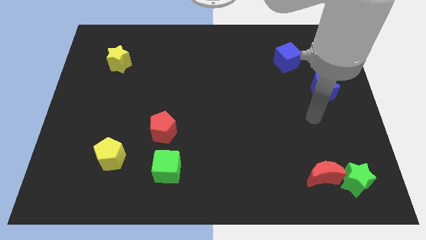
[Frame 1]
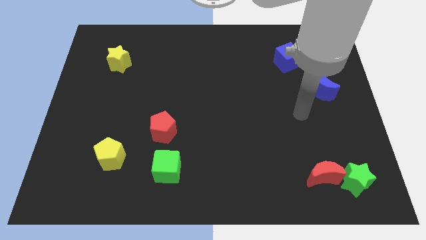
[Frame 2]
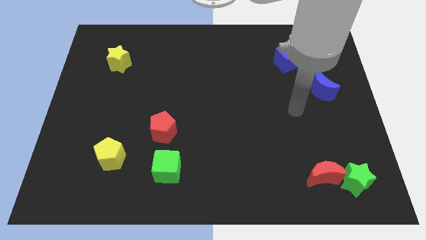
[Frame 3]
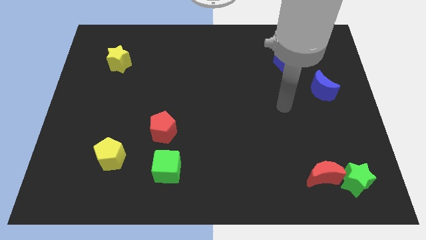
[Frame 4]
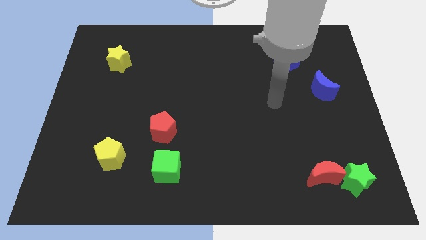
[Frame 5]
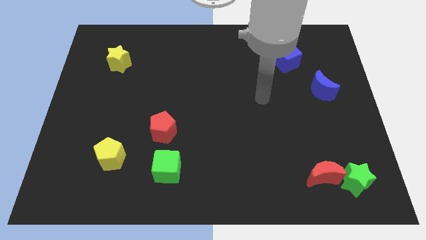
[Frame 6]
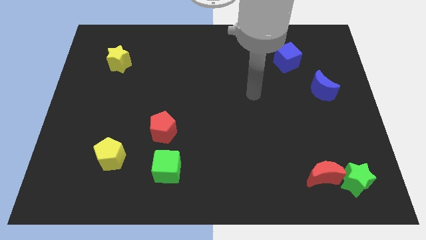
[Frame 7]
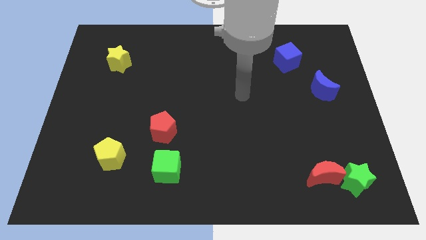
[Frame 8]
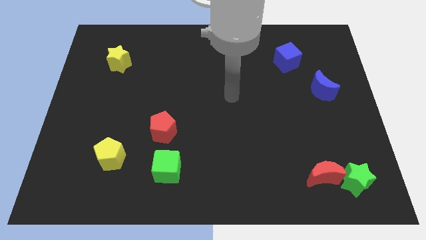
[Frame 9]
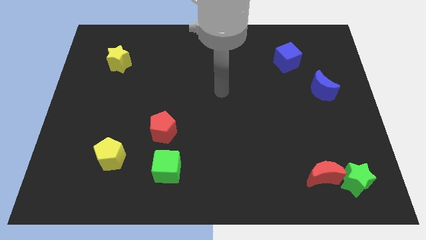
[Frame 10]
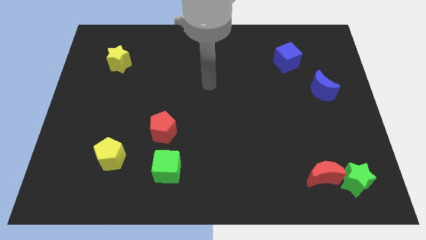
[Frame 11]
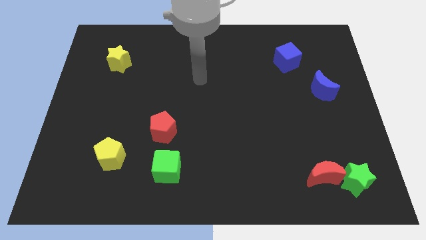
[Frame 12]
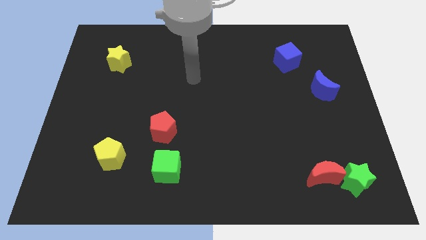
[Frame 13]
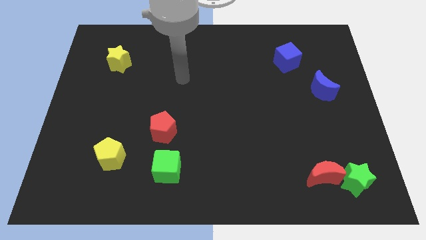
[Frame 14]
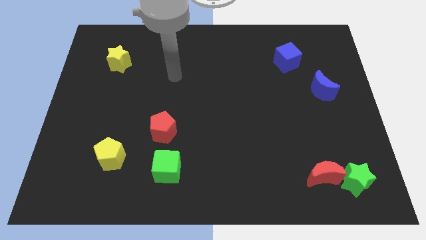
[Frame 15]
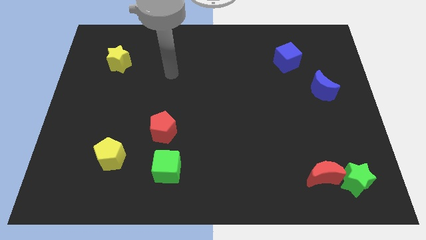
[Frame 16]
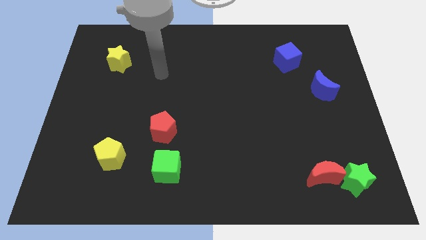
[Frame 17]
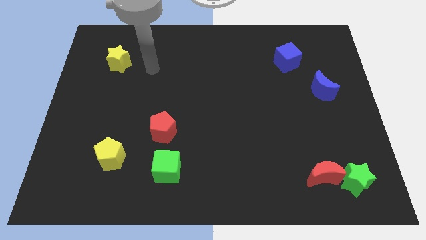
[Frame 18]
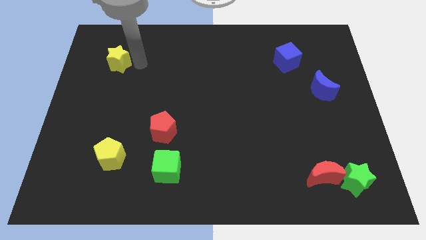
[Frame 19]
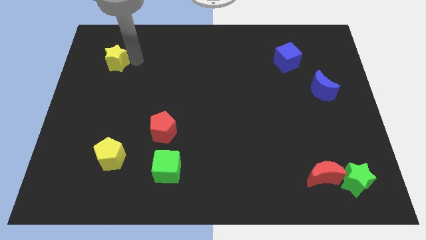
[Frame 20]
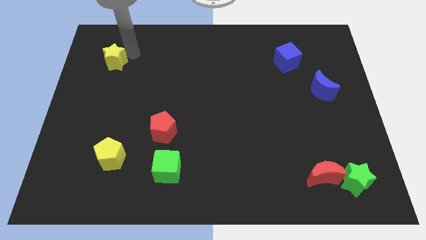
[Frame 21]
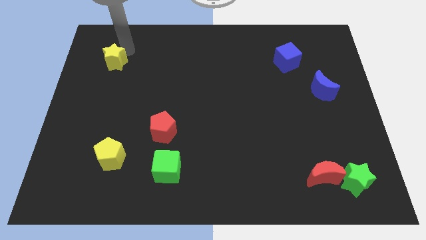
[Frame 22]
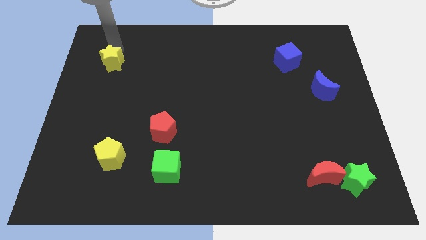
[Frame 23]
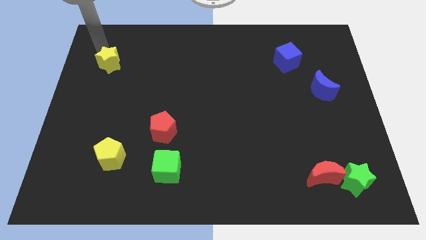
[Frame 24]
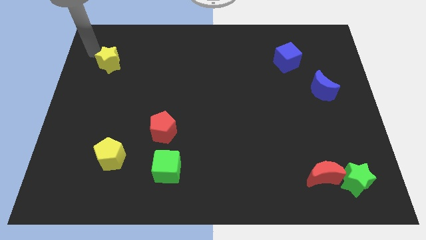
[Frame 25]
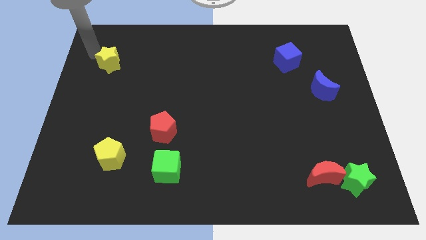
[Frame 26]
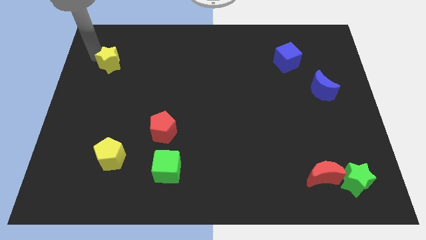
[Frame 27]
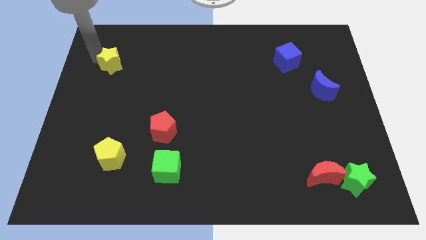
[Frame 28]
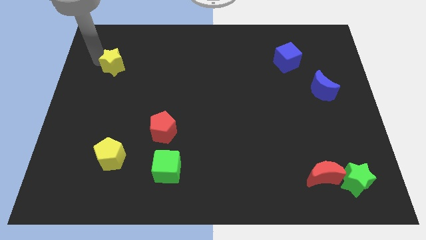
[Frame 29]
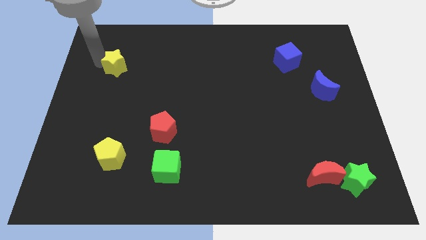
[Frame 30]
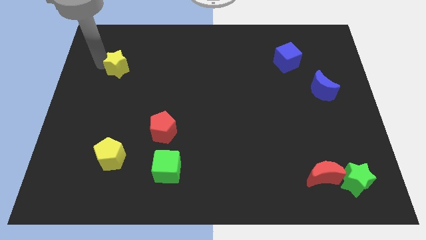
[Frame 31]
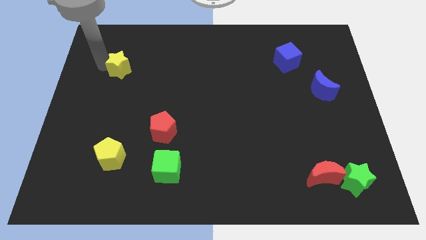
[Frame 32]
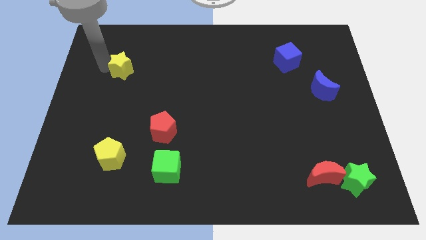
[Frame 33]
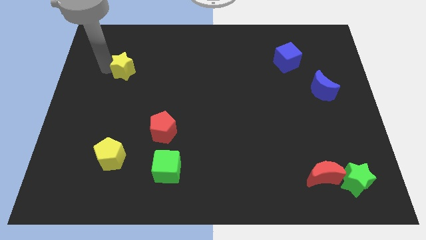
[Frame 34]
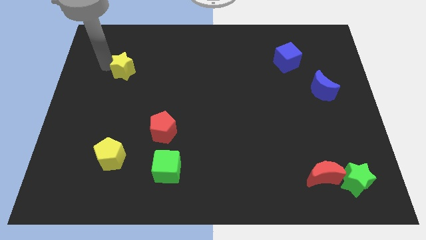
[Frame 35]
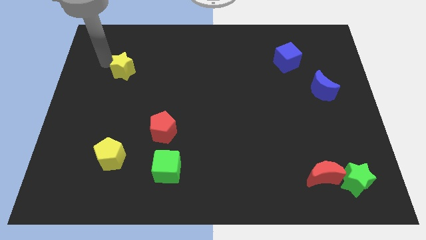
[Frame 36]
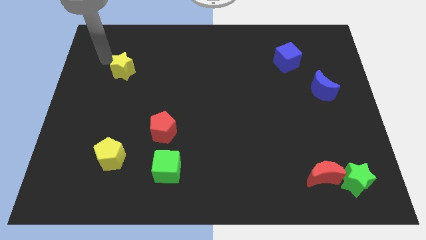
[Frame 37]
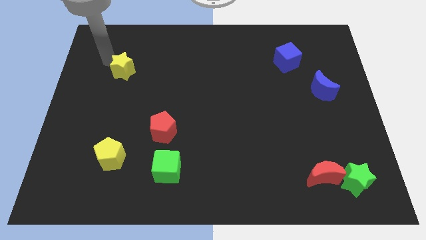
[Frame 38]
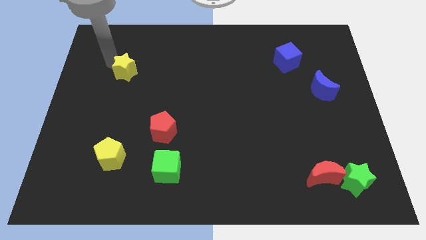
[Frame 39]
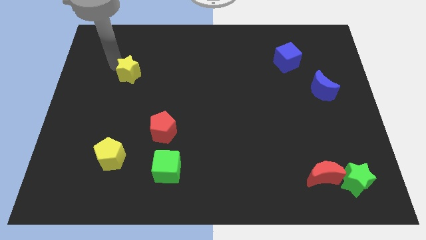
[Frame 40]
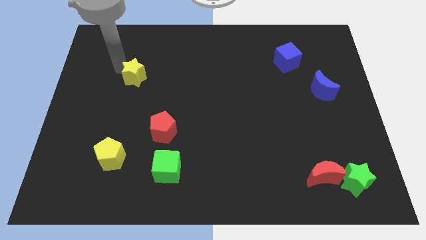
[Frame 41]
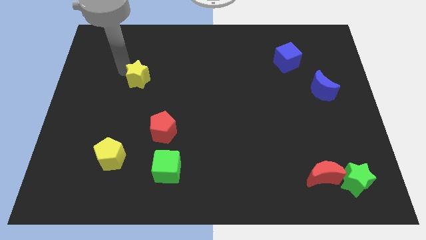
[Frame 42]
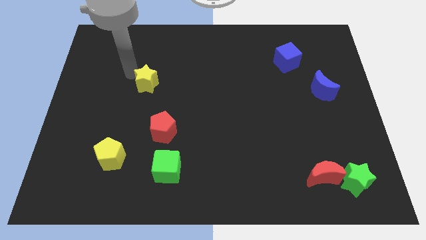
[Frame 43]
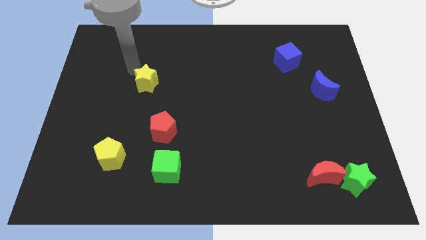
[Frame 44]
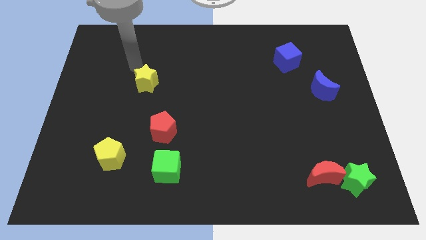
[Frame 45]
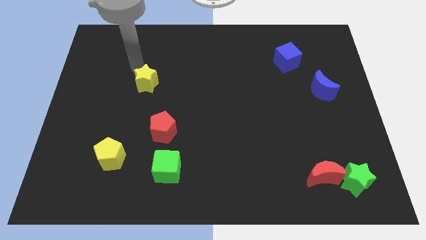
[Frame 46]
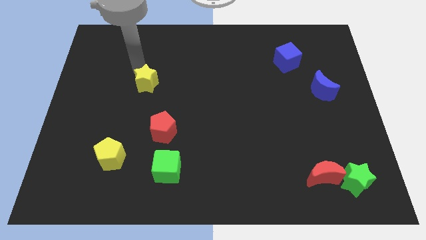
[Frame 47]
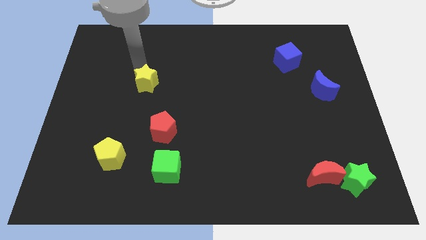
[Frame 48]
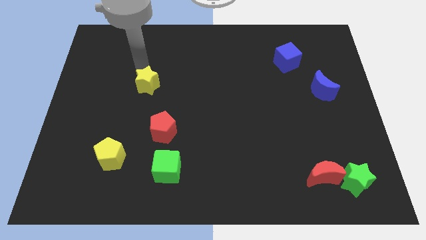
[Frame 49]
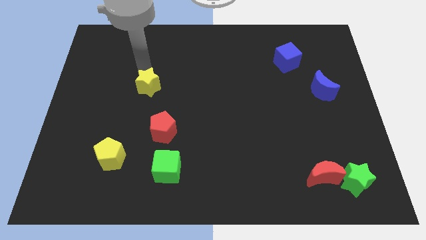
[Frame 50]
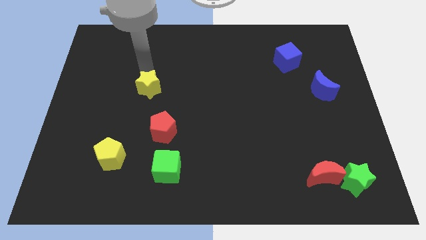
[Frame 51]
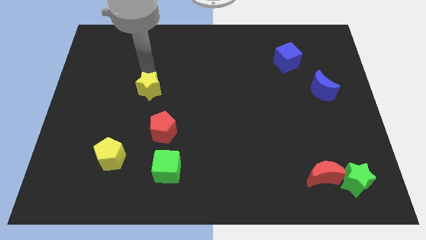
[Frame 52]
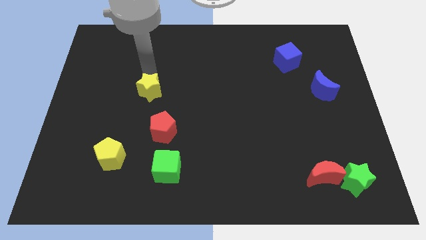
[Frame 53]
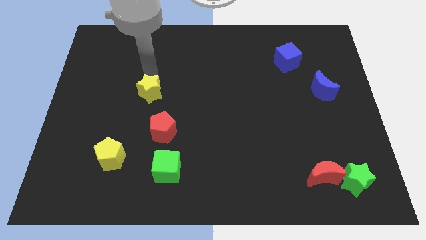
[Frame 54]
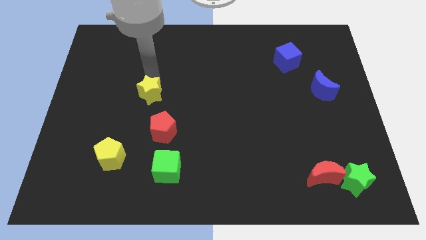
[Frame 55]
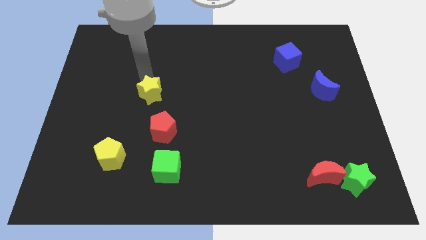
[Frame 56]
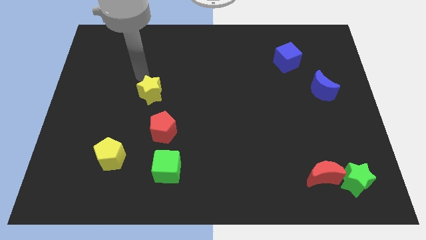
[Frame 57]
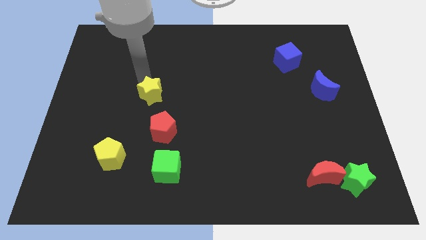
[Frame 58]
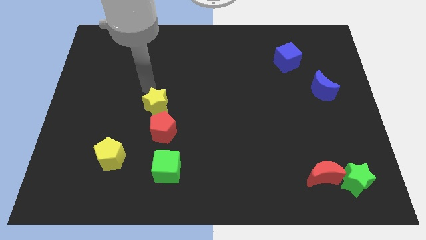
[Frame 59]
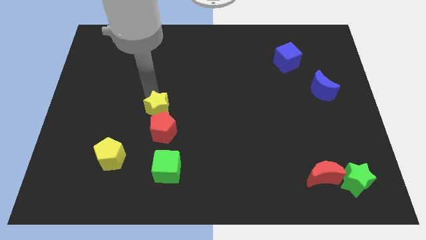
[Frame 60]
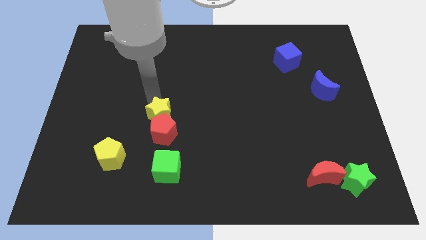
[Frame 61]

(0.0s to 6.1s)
put the yellow star to the top of the green cube
